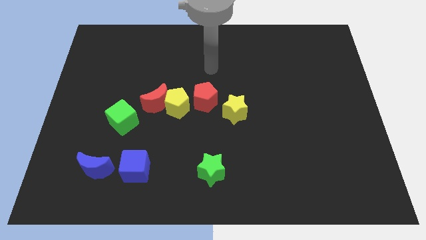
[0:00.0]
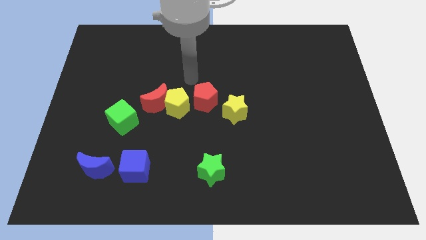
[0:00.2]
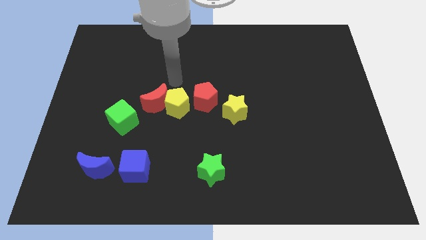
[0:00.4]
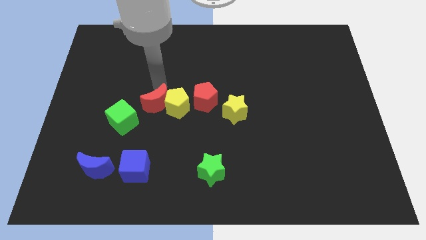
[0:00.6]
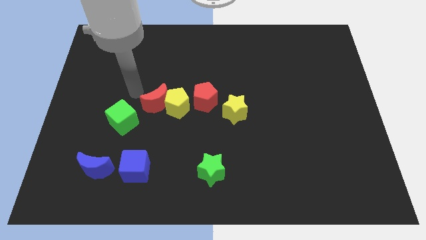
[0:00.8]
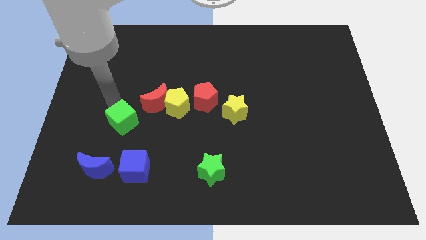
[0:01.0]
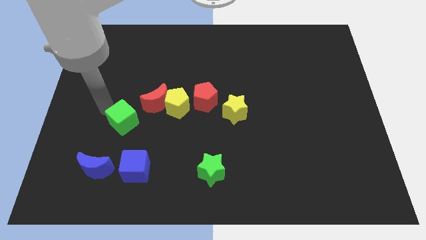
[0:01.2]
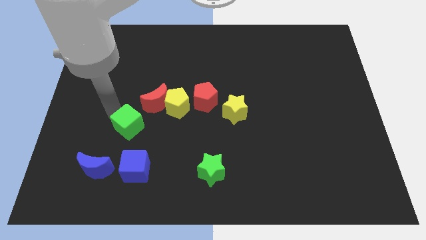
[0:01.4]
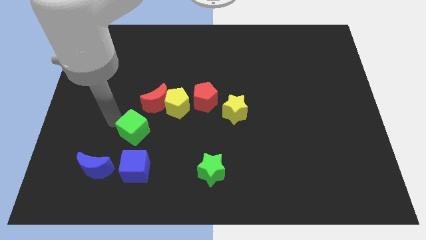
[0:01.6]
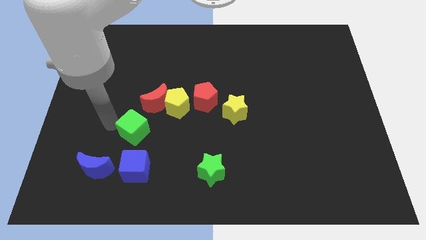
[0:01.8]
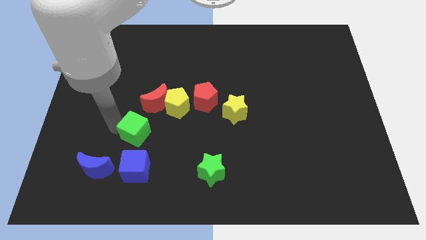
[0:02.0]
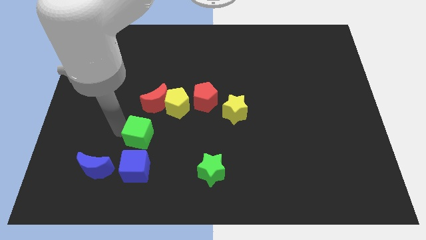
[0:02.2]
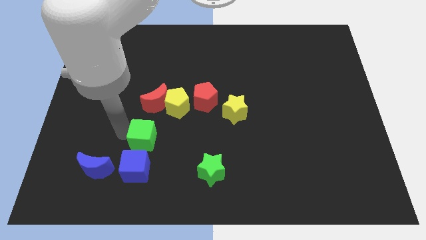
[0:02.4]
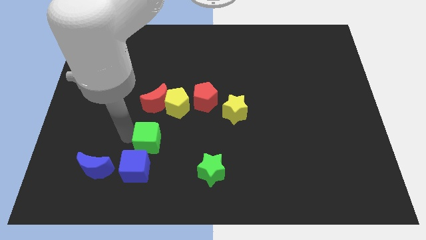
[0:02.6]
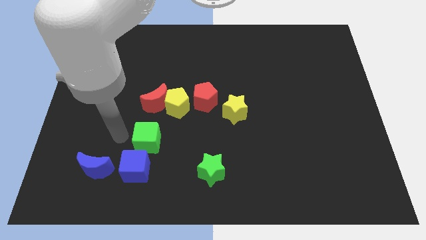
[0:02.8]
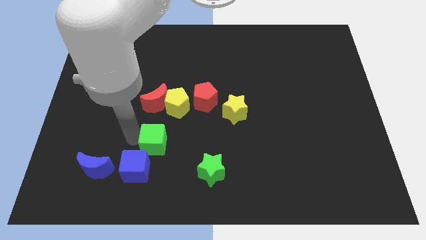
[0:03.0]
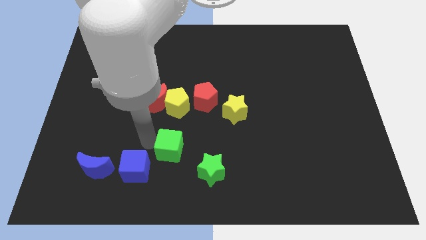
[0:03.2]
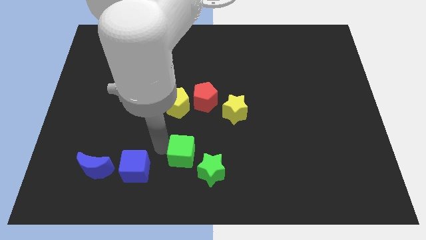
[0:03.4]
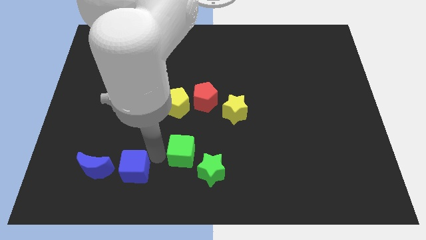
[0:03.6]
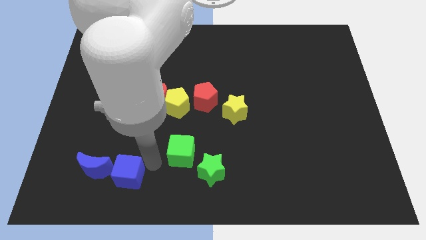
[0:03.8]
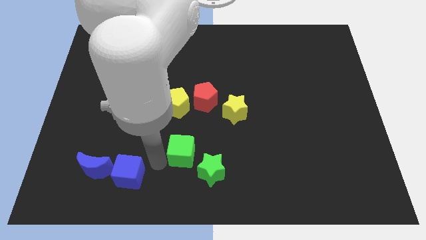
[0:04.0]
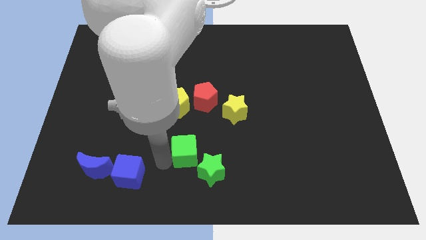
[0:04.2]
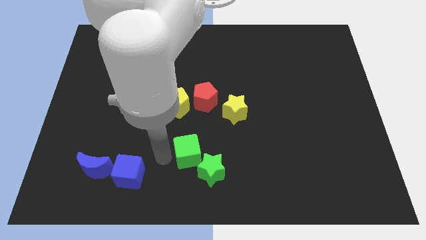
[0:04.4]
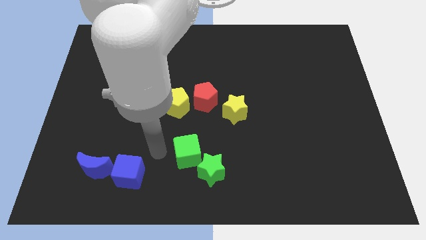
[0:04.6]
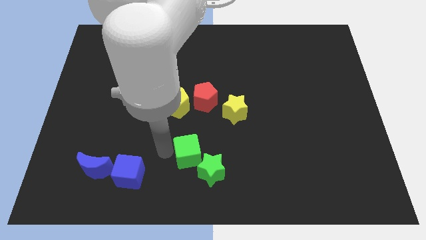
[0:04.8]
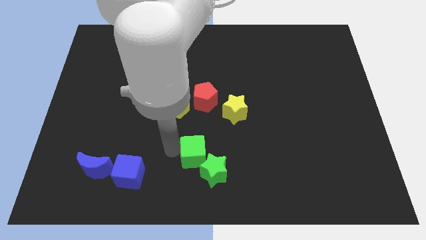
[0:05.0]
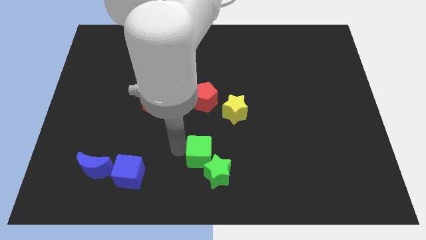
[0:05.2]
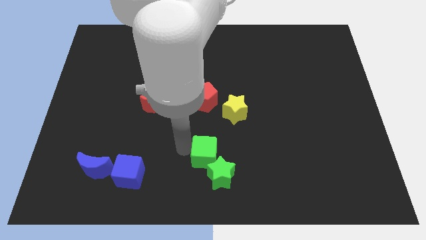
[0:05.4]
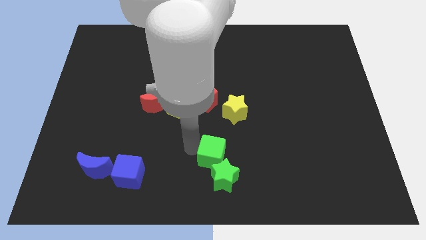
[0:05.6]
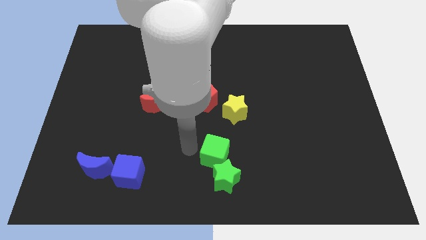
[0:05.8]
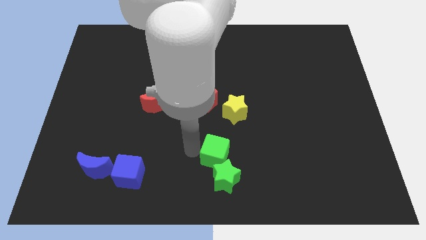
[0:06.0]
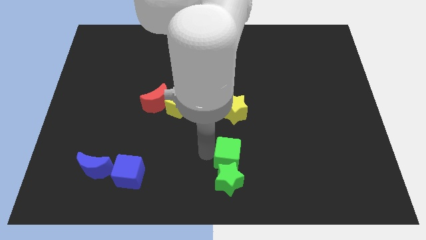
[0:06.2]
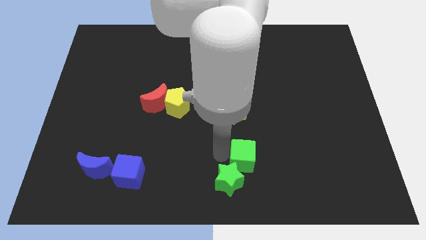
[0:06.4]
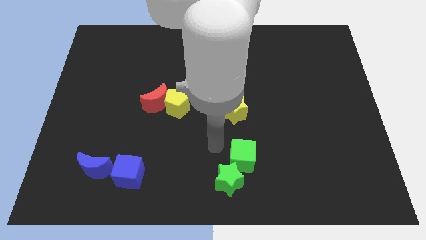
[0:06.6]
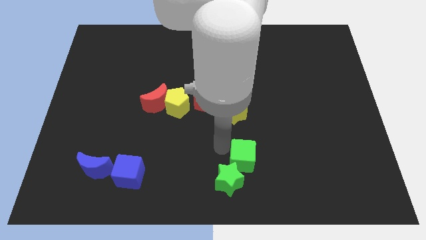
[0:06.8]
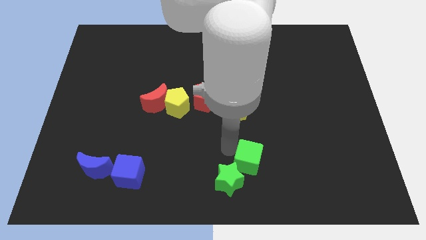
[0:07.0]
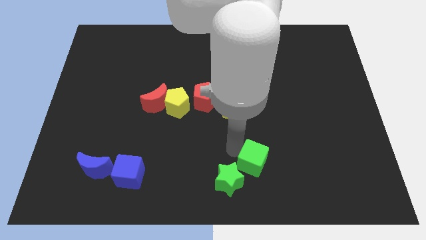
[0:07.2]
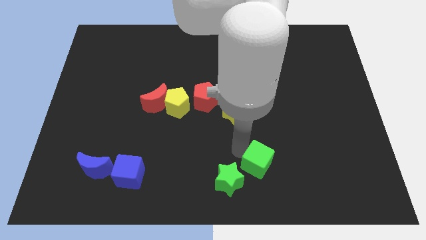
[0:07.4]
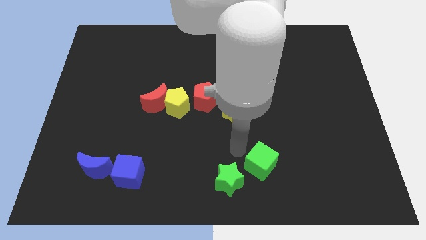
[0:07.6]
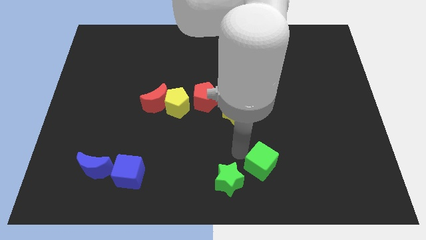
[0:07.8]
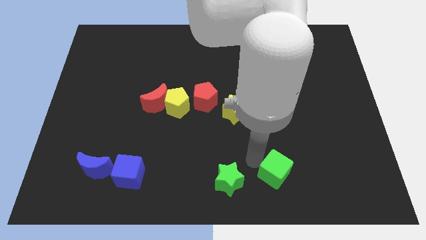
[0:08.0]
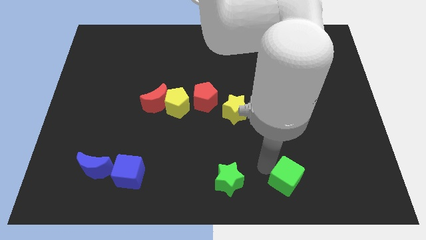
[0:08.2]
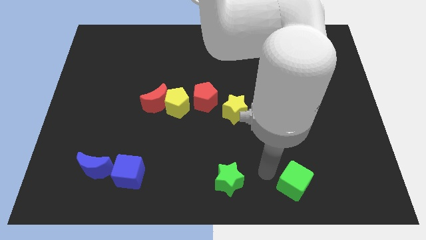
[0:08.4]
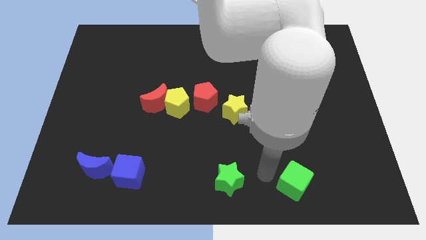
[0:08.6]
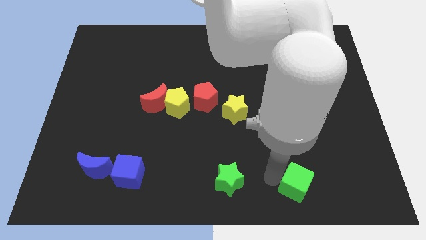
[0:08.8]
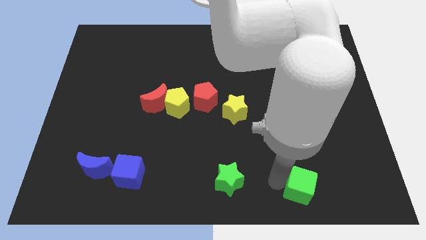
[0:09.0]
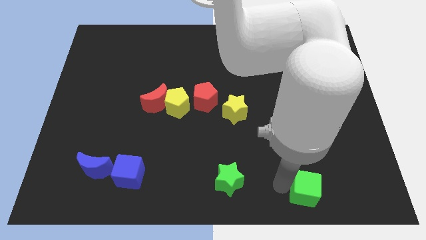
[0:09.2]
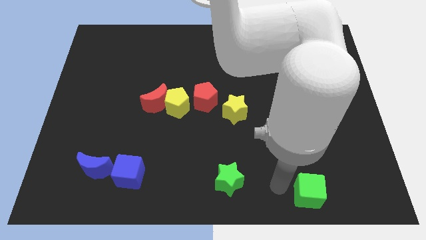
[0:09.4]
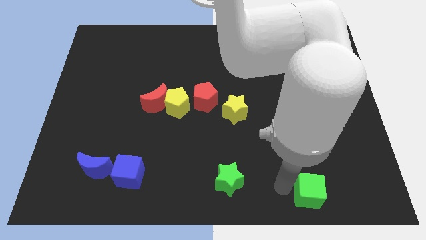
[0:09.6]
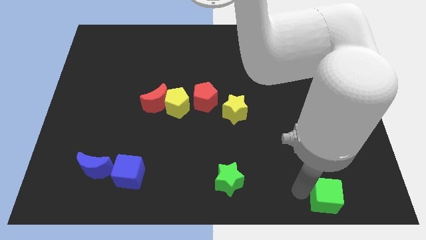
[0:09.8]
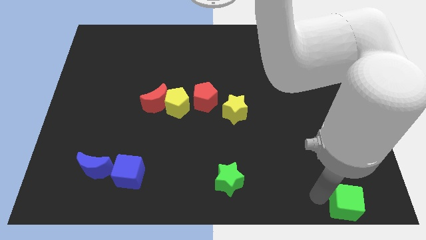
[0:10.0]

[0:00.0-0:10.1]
put the green cube to the lower right corner

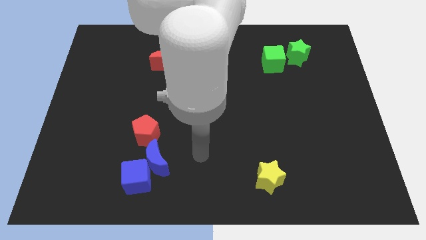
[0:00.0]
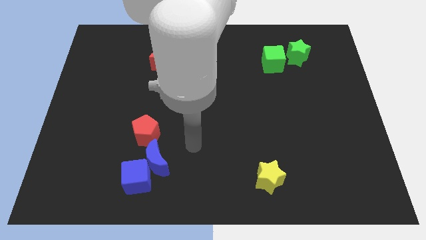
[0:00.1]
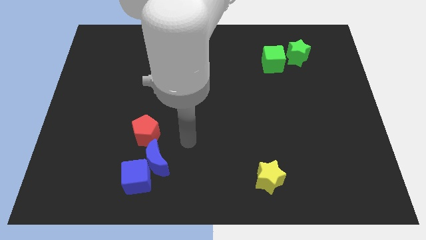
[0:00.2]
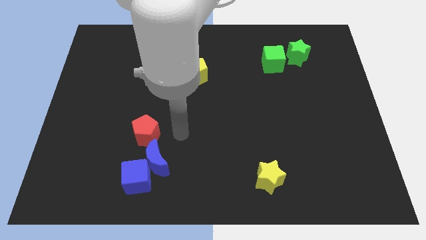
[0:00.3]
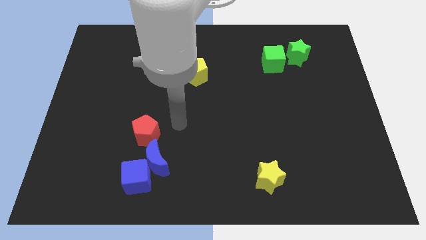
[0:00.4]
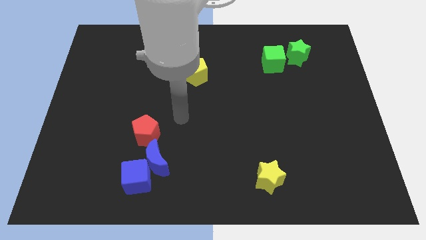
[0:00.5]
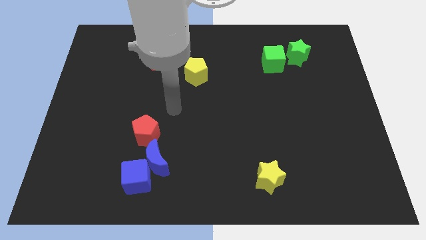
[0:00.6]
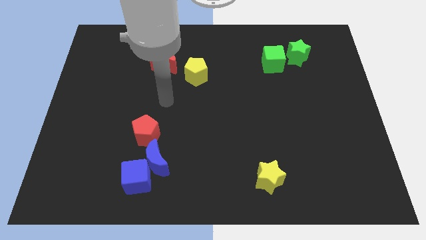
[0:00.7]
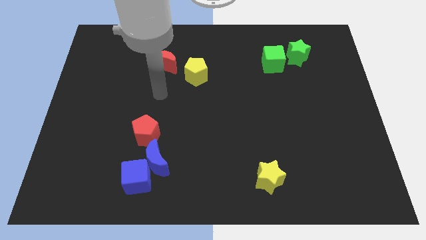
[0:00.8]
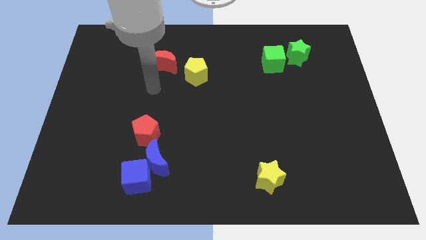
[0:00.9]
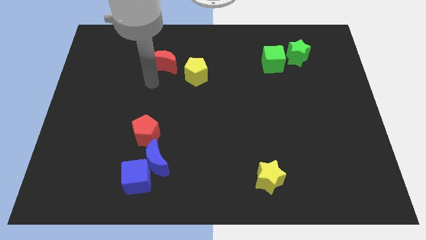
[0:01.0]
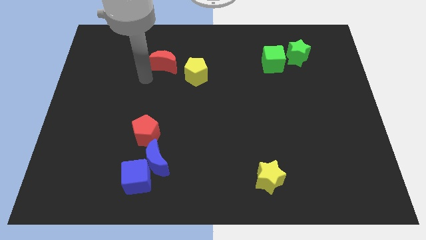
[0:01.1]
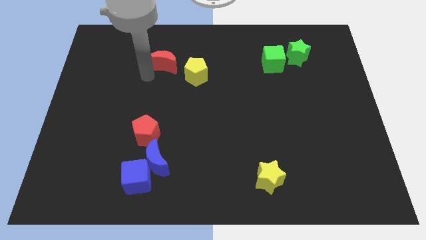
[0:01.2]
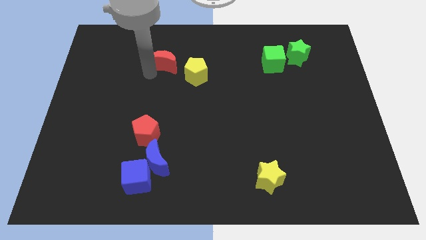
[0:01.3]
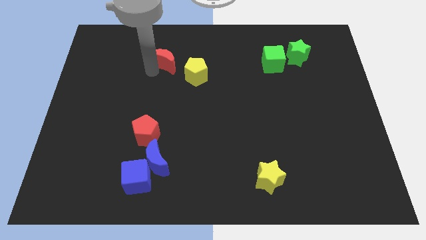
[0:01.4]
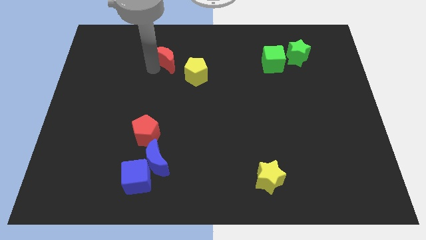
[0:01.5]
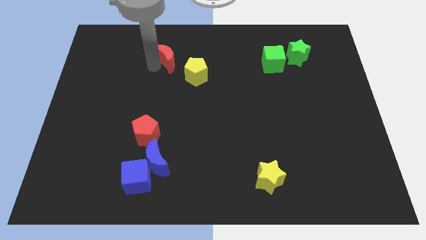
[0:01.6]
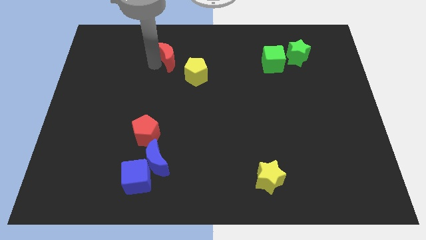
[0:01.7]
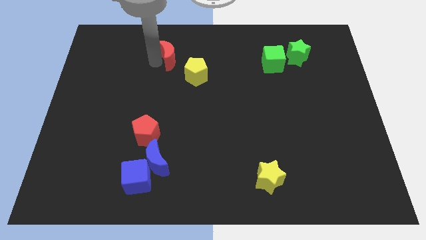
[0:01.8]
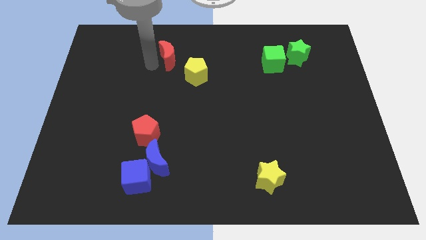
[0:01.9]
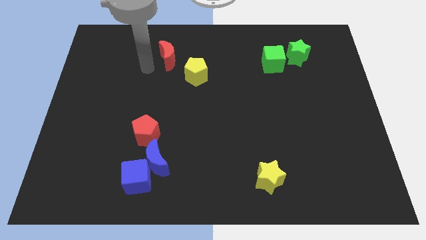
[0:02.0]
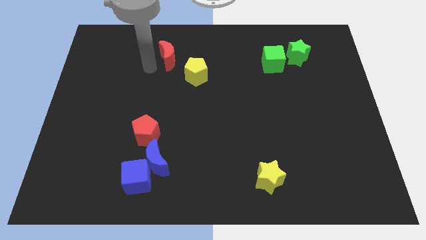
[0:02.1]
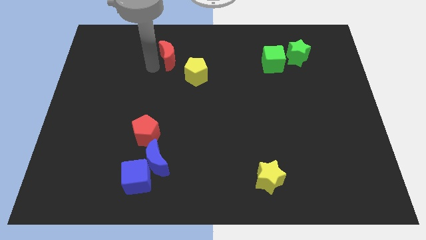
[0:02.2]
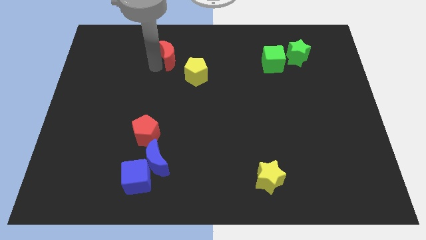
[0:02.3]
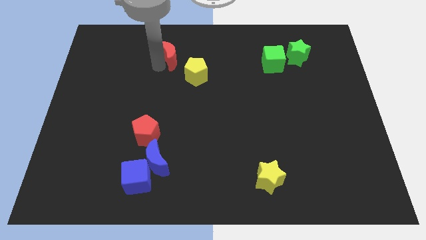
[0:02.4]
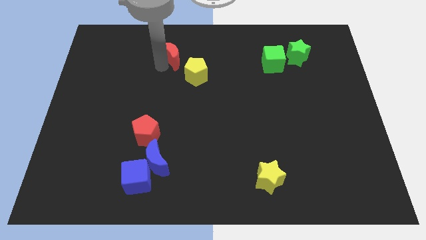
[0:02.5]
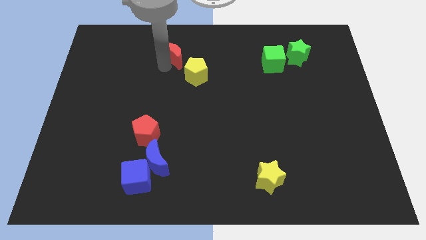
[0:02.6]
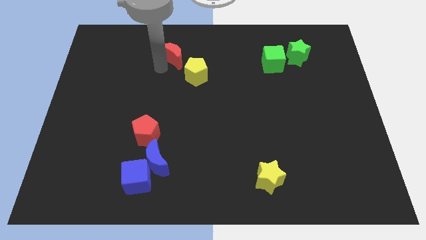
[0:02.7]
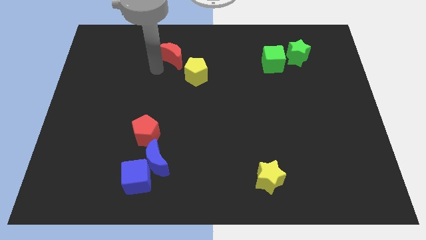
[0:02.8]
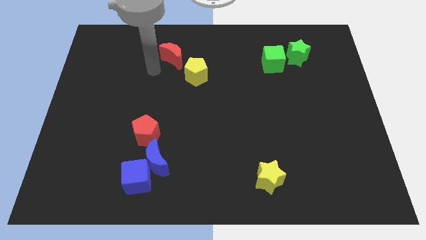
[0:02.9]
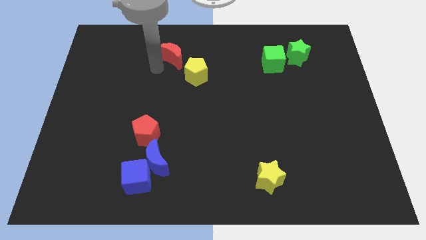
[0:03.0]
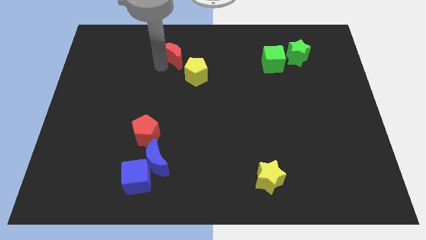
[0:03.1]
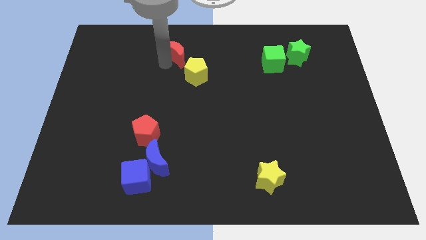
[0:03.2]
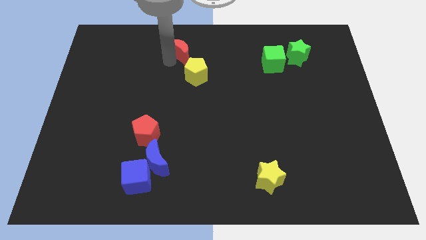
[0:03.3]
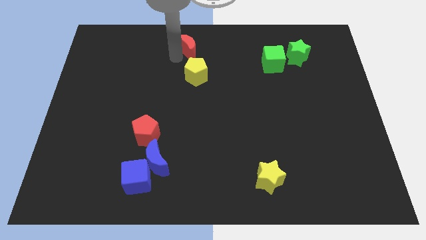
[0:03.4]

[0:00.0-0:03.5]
put the red moon to the top

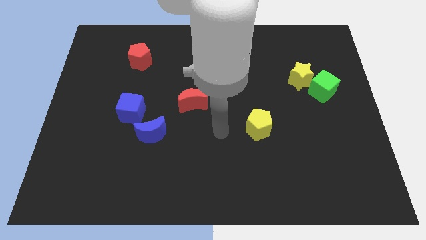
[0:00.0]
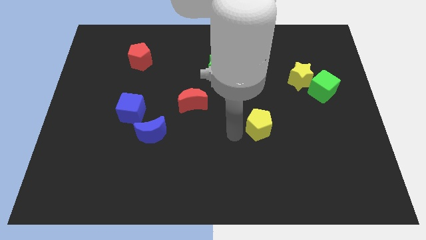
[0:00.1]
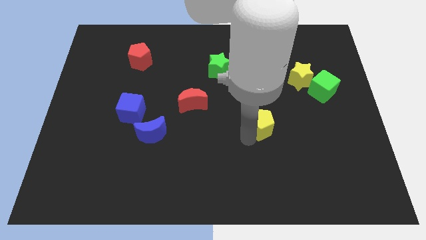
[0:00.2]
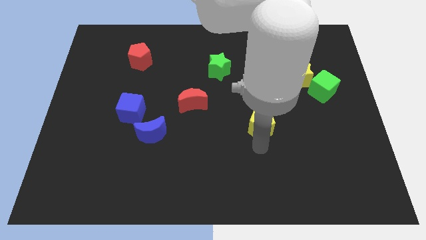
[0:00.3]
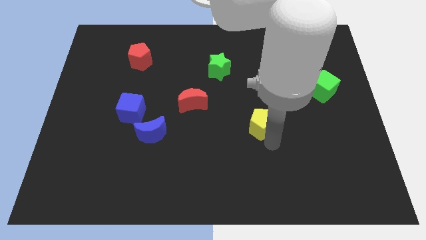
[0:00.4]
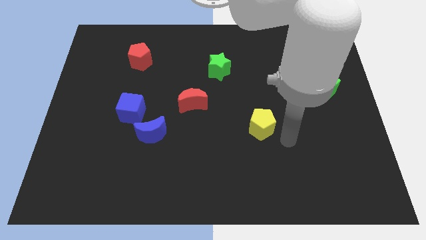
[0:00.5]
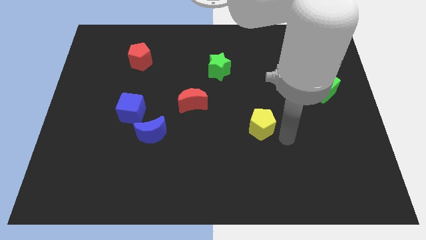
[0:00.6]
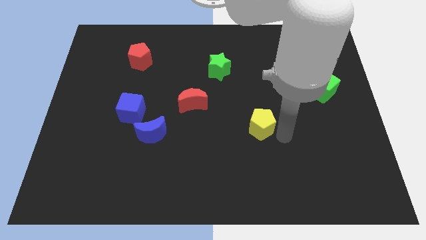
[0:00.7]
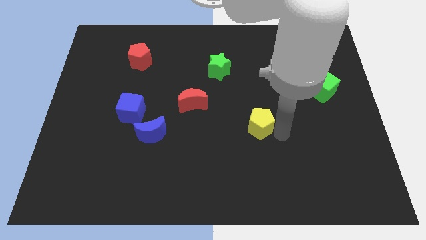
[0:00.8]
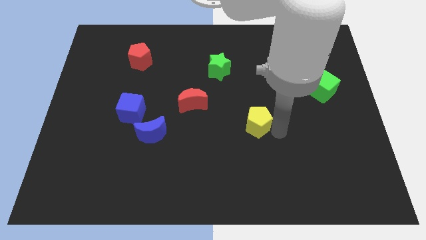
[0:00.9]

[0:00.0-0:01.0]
push the yellow pentagon to the center of the board
